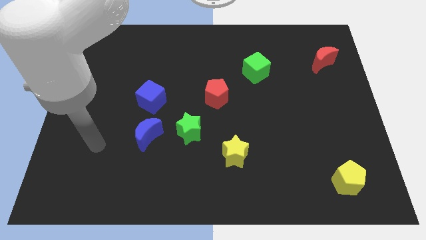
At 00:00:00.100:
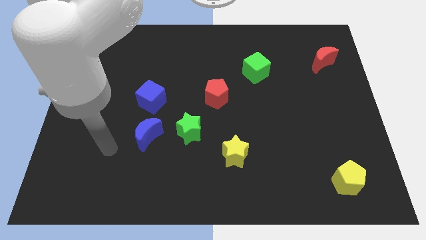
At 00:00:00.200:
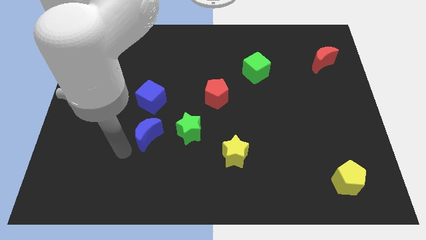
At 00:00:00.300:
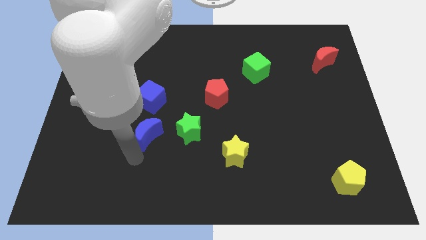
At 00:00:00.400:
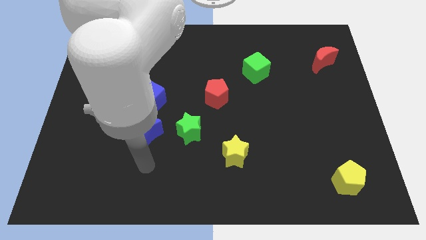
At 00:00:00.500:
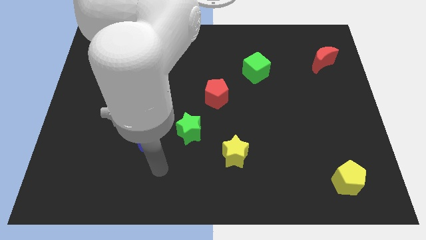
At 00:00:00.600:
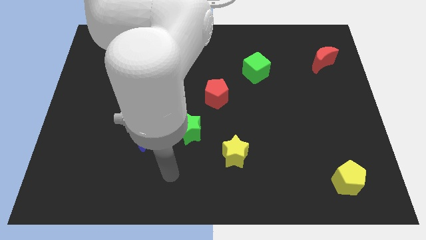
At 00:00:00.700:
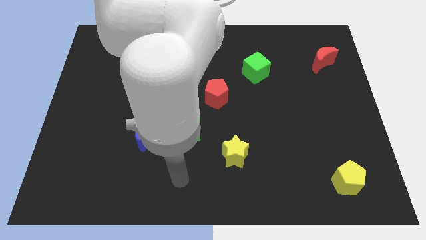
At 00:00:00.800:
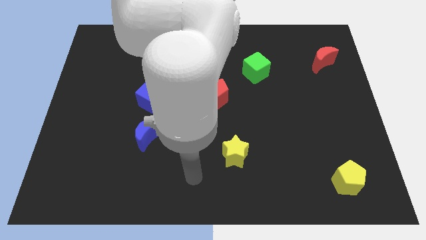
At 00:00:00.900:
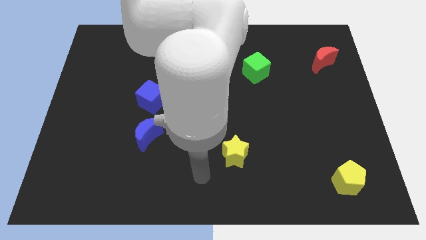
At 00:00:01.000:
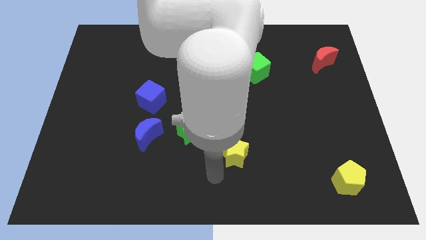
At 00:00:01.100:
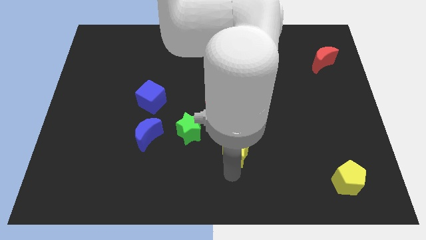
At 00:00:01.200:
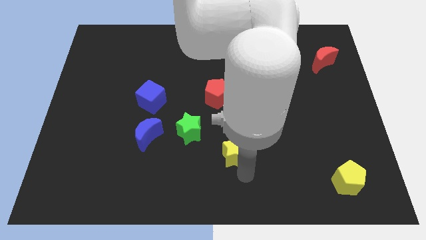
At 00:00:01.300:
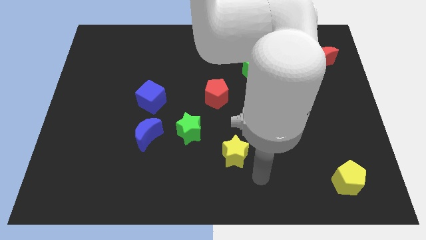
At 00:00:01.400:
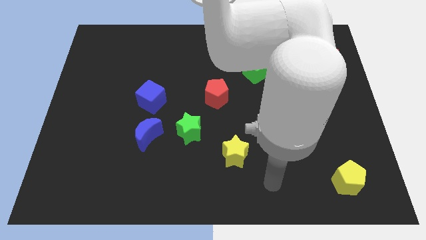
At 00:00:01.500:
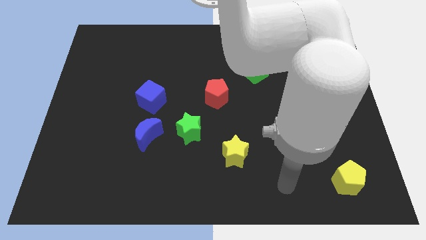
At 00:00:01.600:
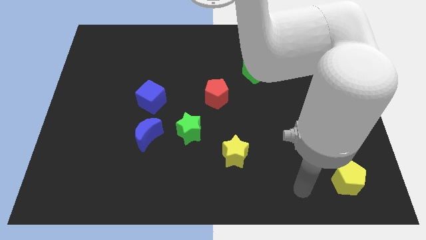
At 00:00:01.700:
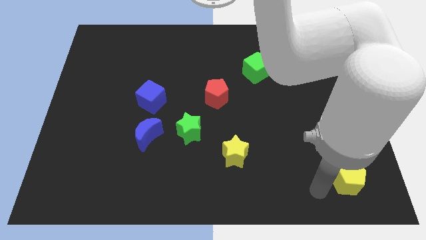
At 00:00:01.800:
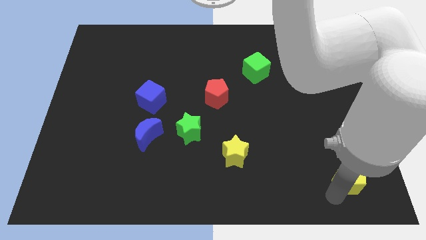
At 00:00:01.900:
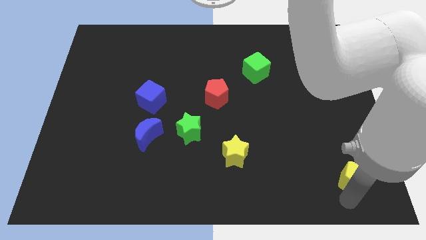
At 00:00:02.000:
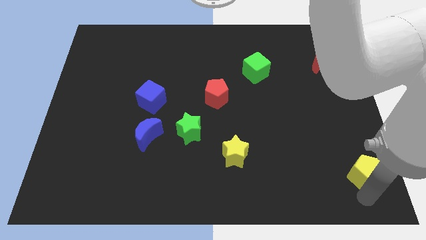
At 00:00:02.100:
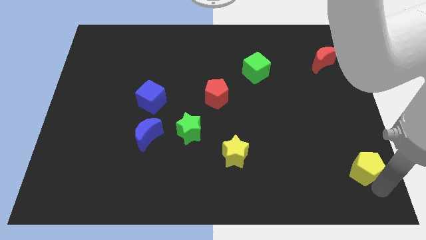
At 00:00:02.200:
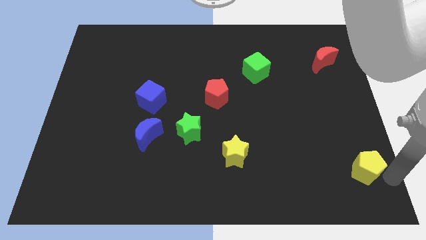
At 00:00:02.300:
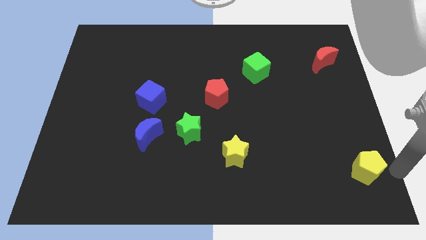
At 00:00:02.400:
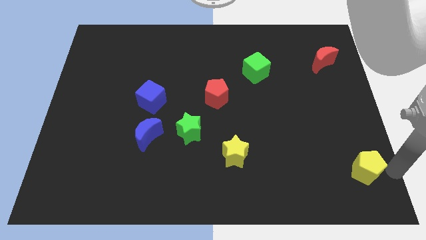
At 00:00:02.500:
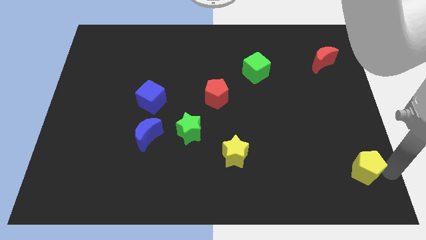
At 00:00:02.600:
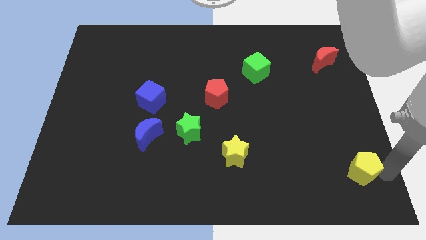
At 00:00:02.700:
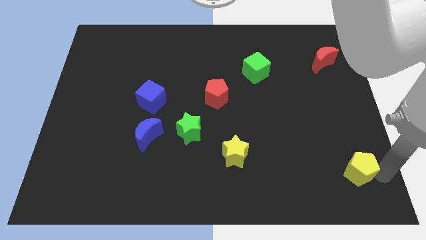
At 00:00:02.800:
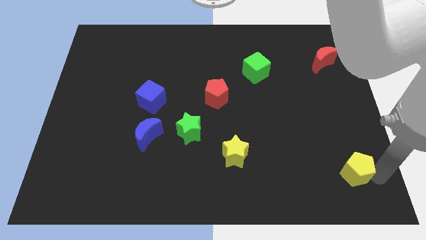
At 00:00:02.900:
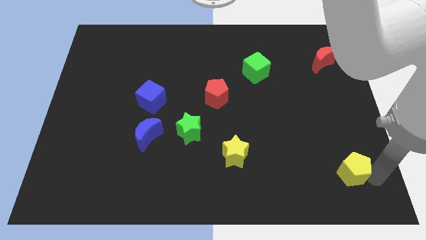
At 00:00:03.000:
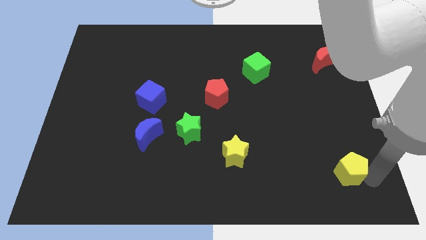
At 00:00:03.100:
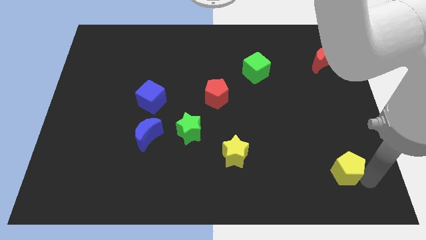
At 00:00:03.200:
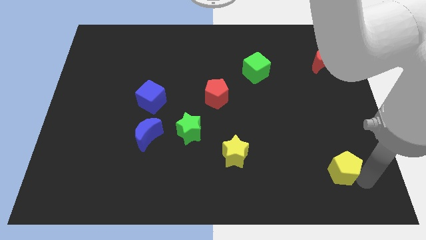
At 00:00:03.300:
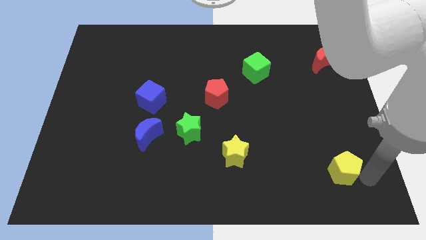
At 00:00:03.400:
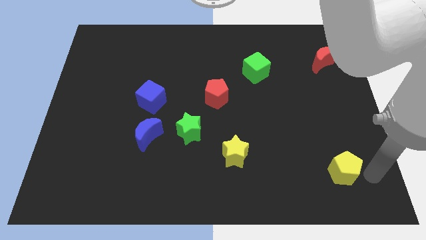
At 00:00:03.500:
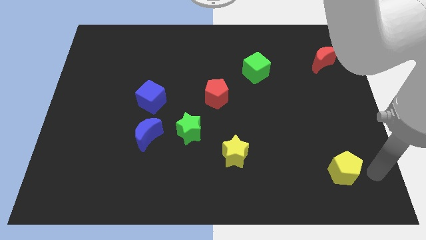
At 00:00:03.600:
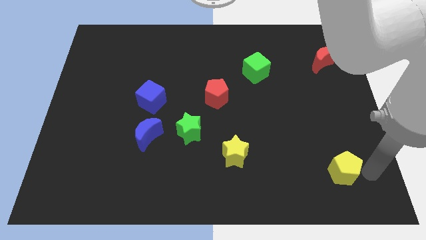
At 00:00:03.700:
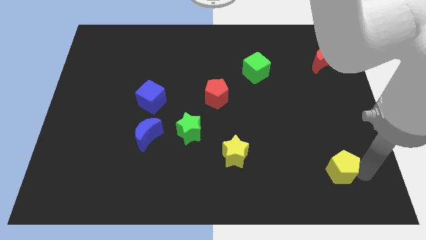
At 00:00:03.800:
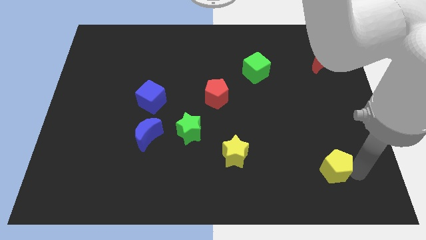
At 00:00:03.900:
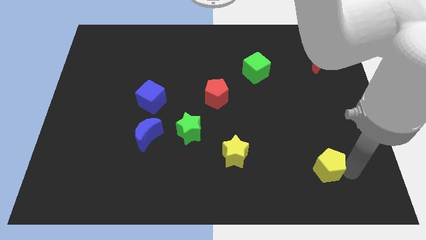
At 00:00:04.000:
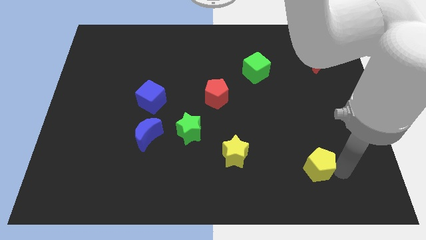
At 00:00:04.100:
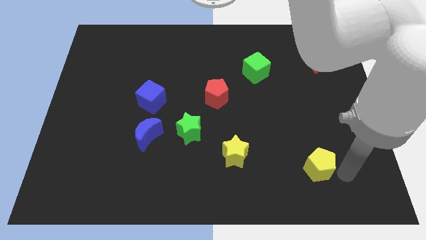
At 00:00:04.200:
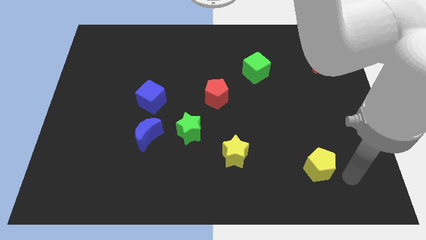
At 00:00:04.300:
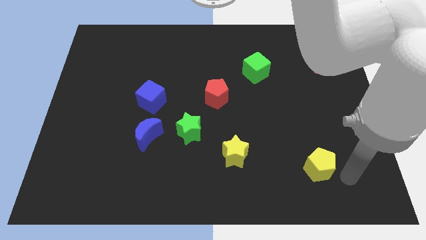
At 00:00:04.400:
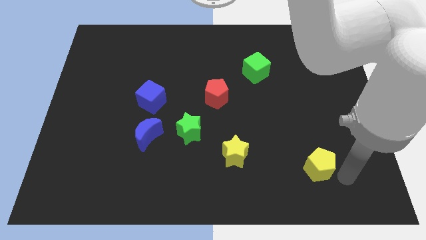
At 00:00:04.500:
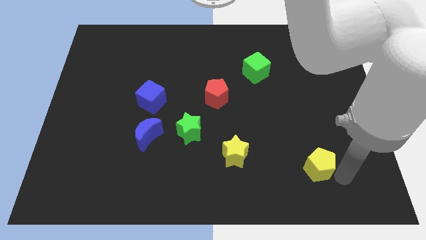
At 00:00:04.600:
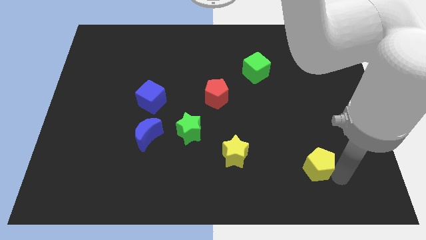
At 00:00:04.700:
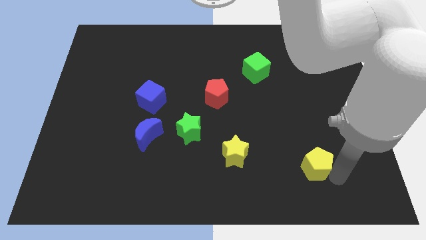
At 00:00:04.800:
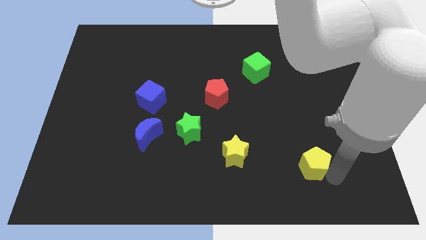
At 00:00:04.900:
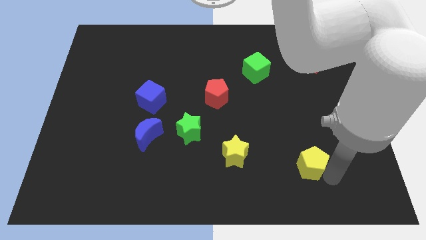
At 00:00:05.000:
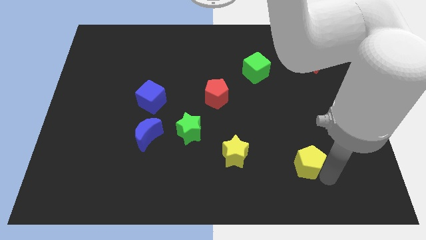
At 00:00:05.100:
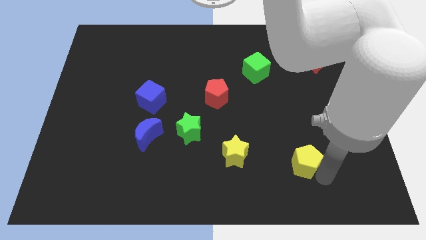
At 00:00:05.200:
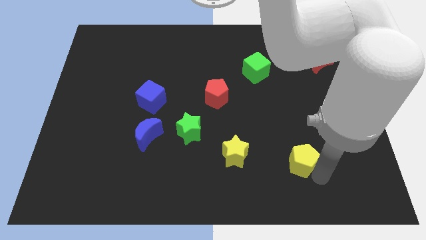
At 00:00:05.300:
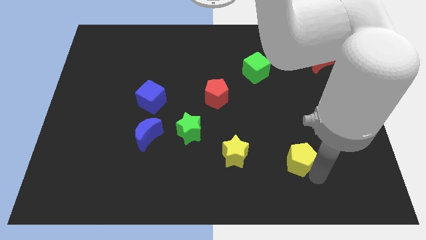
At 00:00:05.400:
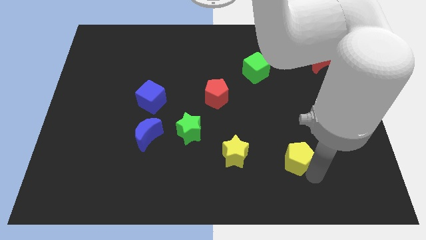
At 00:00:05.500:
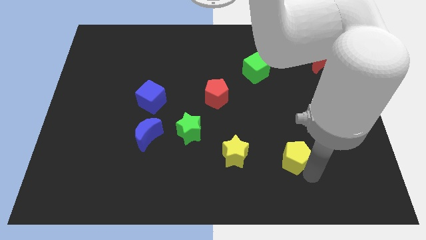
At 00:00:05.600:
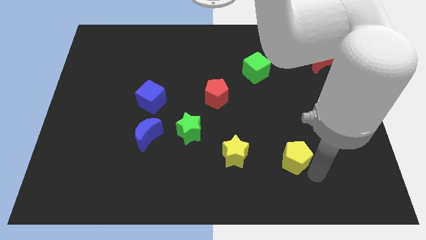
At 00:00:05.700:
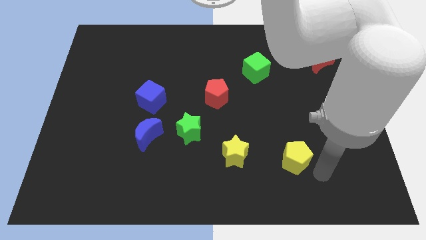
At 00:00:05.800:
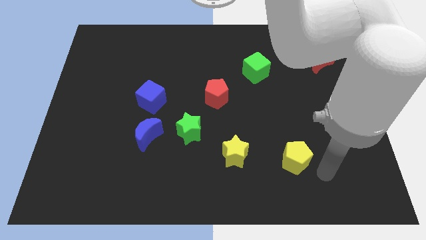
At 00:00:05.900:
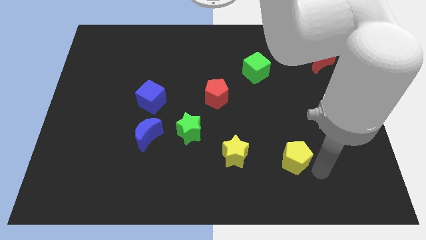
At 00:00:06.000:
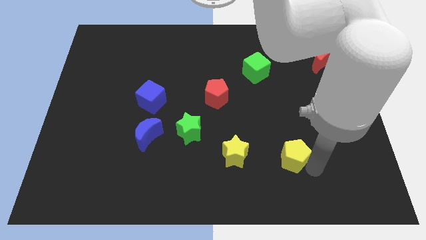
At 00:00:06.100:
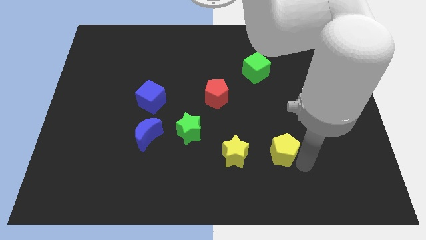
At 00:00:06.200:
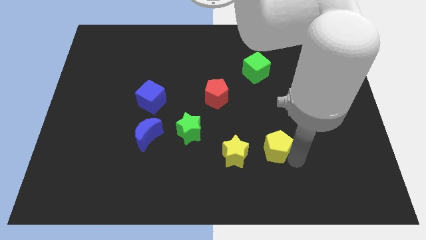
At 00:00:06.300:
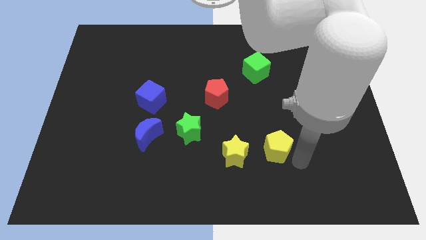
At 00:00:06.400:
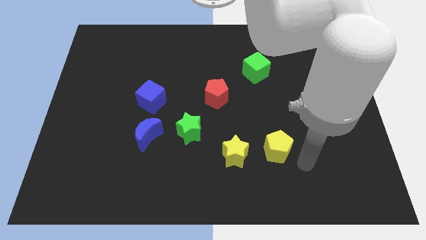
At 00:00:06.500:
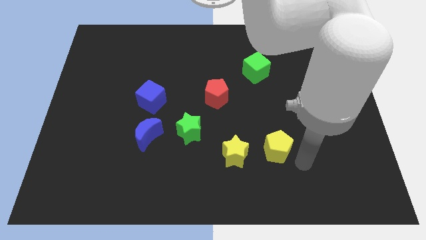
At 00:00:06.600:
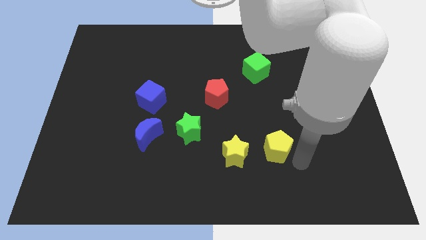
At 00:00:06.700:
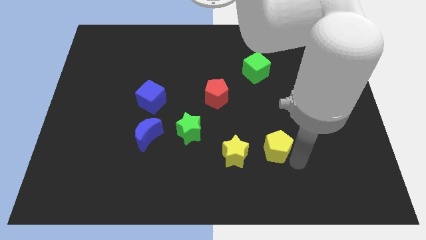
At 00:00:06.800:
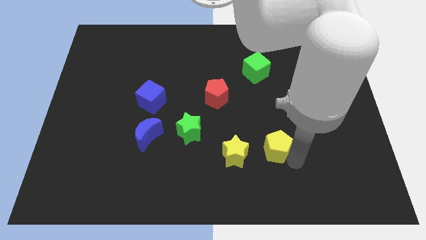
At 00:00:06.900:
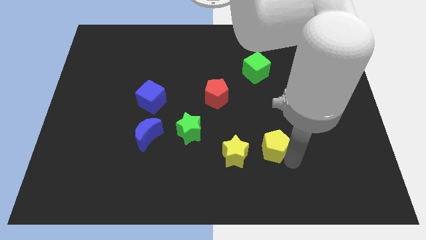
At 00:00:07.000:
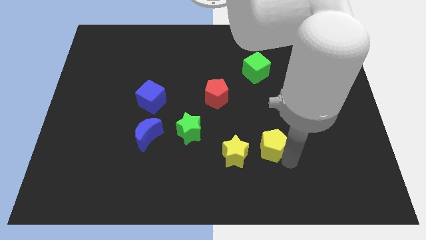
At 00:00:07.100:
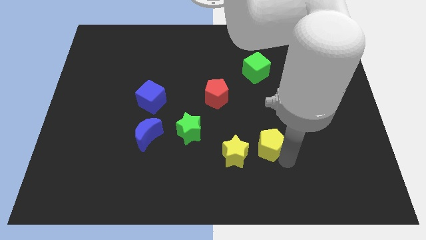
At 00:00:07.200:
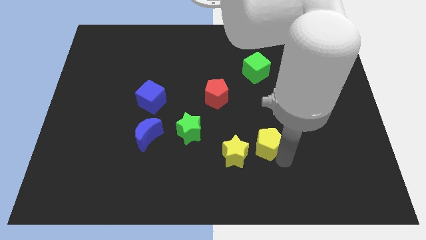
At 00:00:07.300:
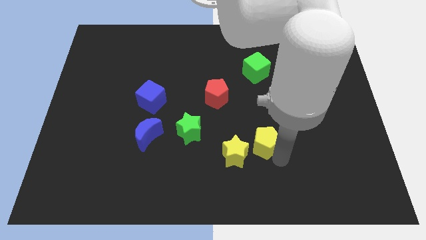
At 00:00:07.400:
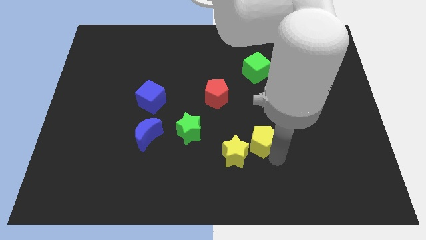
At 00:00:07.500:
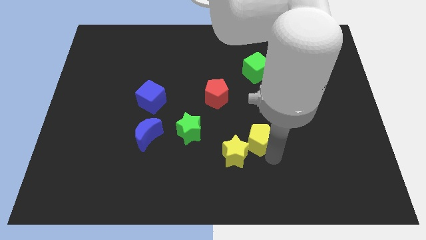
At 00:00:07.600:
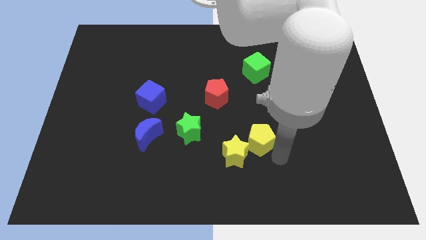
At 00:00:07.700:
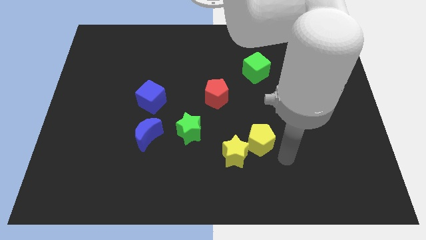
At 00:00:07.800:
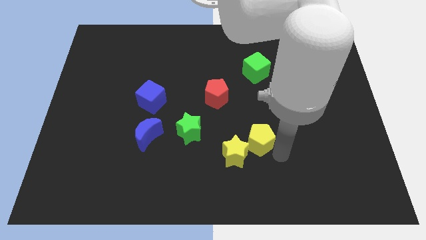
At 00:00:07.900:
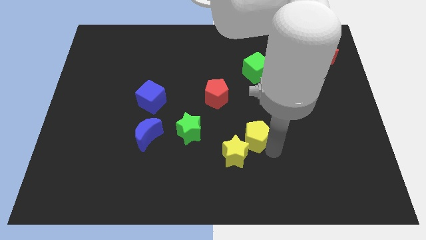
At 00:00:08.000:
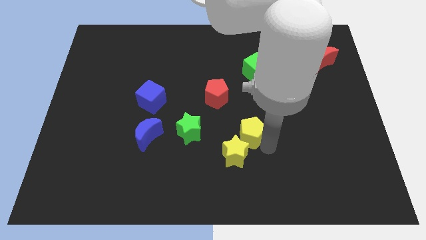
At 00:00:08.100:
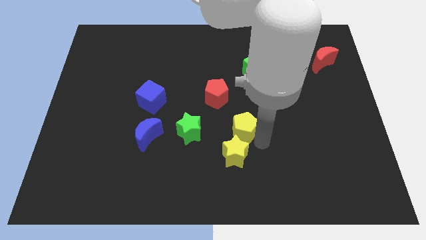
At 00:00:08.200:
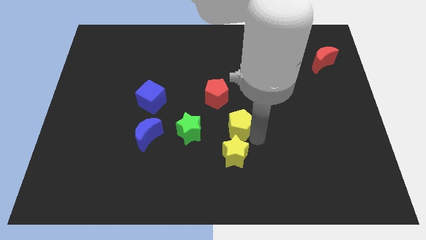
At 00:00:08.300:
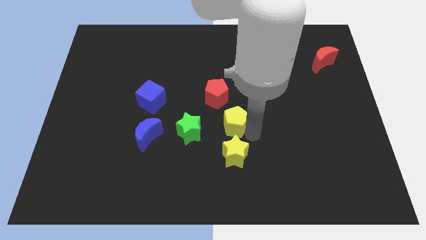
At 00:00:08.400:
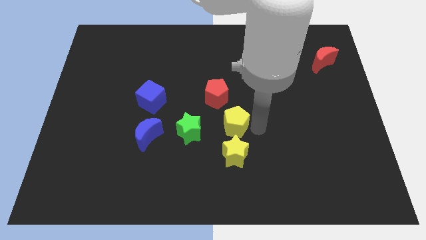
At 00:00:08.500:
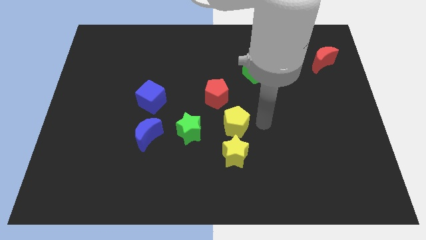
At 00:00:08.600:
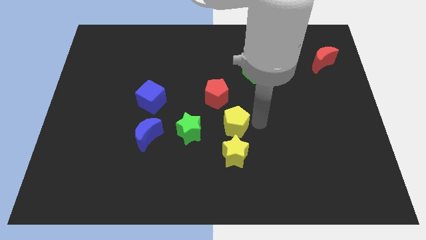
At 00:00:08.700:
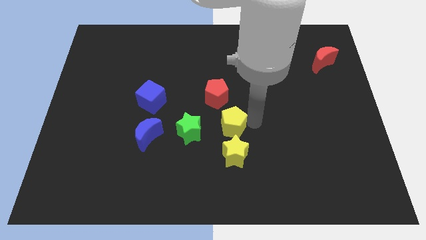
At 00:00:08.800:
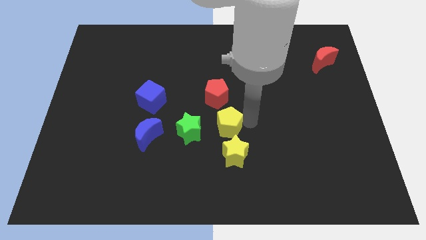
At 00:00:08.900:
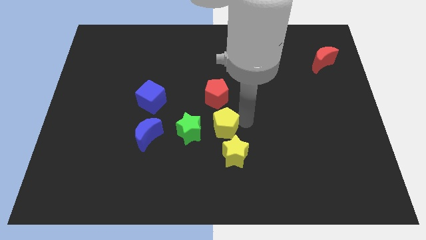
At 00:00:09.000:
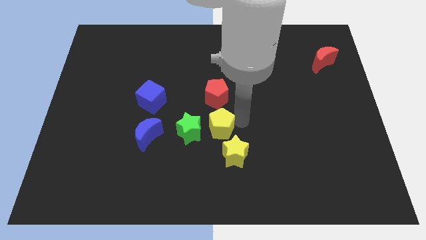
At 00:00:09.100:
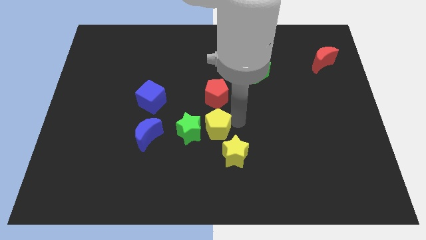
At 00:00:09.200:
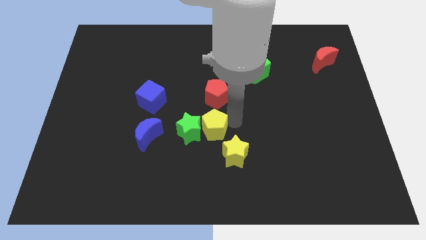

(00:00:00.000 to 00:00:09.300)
push the yellow pentagon next to the green star
